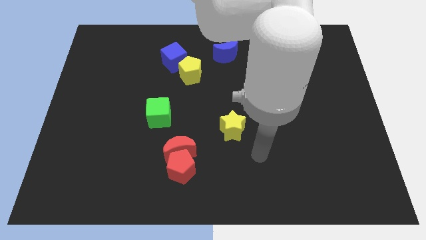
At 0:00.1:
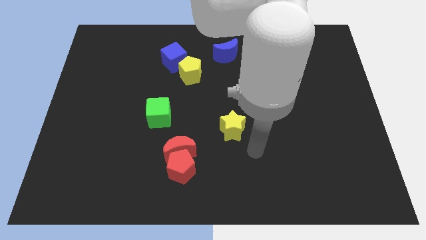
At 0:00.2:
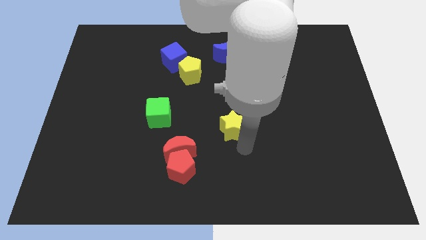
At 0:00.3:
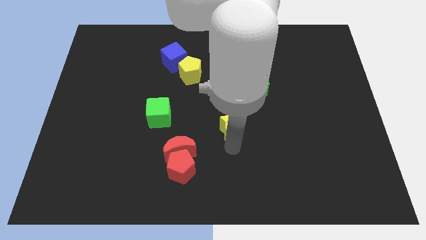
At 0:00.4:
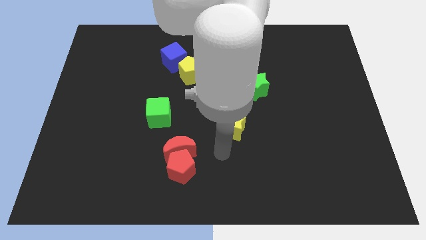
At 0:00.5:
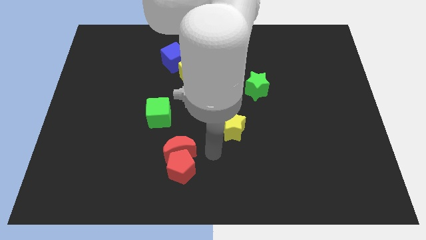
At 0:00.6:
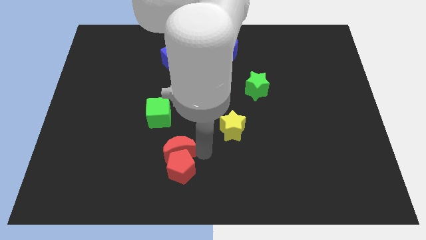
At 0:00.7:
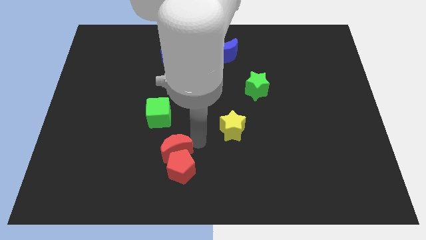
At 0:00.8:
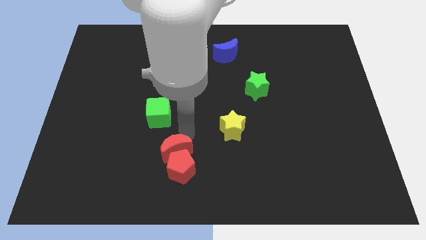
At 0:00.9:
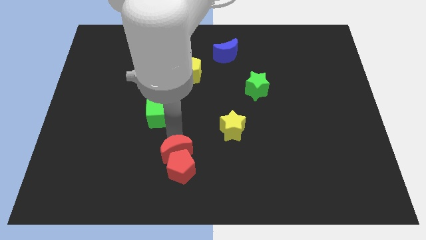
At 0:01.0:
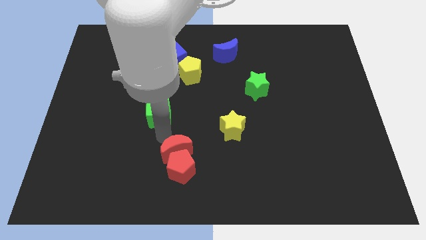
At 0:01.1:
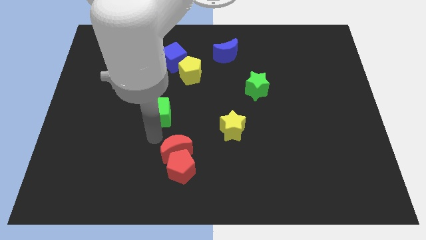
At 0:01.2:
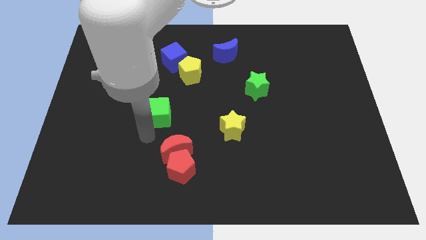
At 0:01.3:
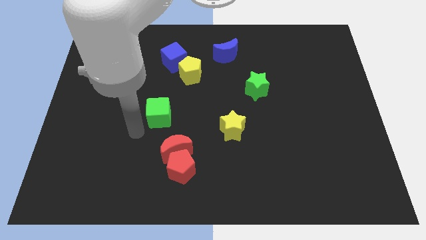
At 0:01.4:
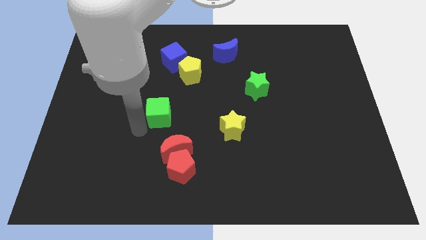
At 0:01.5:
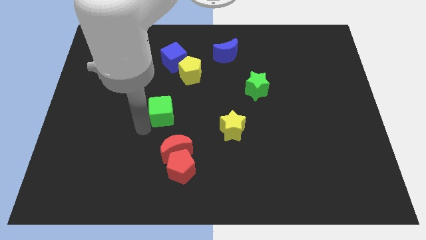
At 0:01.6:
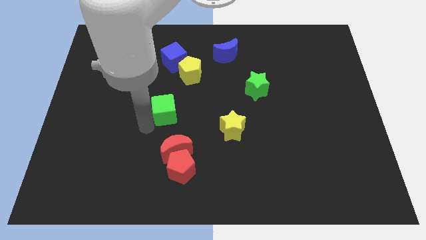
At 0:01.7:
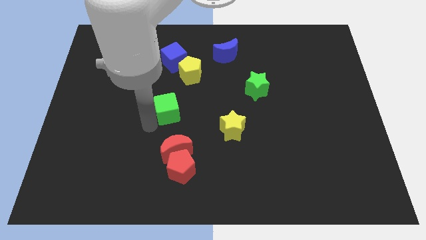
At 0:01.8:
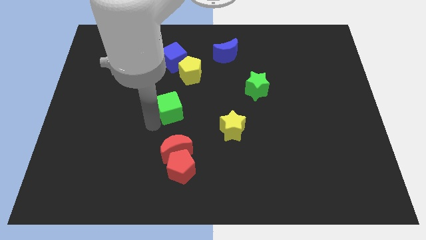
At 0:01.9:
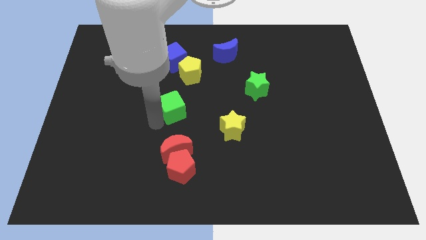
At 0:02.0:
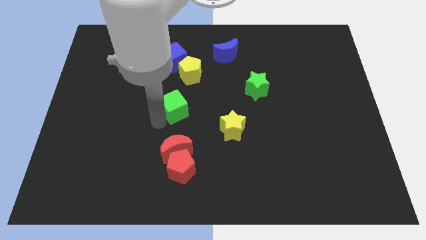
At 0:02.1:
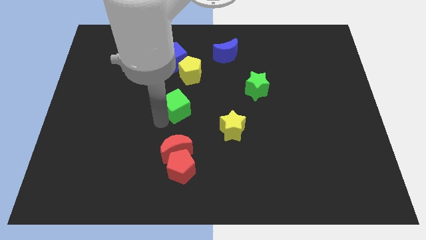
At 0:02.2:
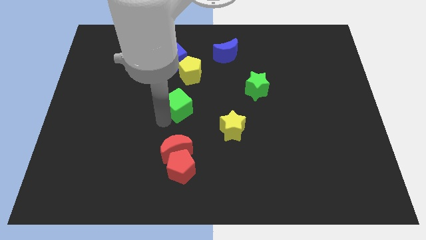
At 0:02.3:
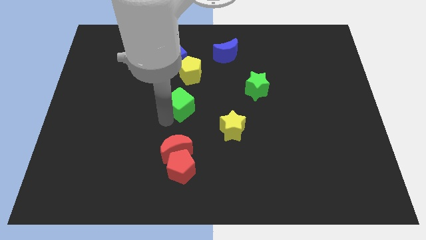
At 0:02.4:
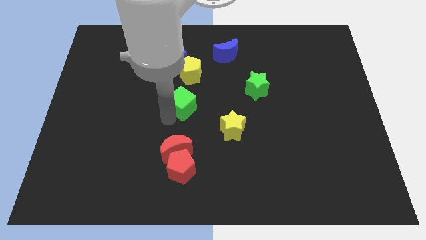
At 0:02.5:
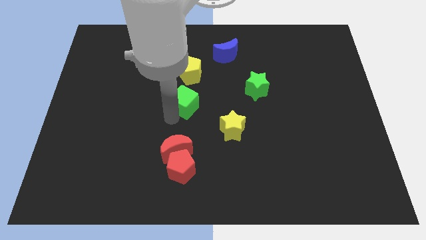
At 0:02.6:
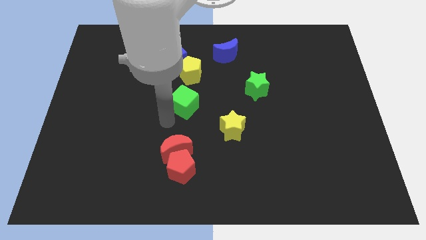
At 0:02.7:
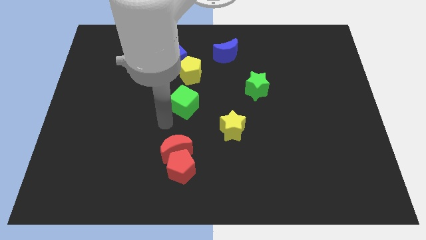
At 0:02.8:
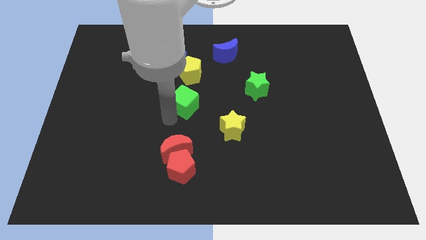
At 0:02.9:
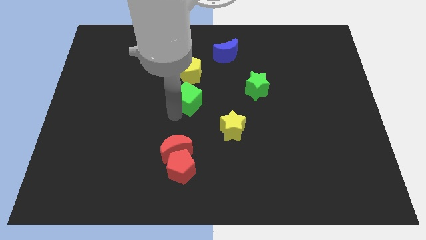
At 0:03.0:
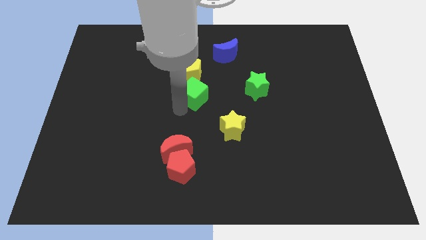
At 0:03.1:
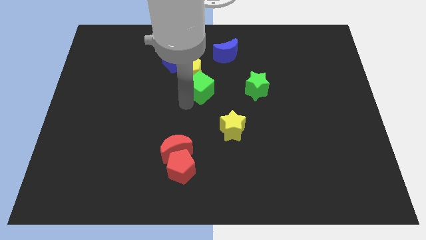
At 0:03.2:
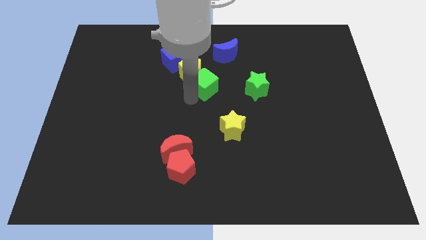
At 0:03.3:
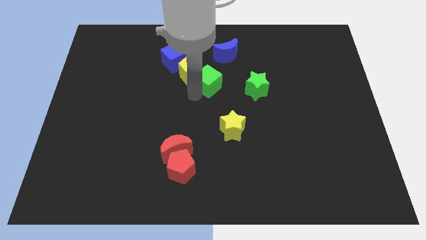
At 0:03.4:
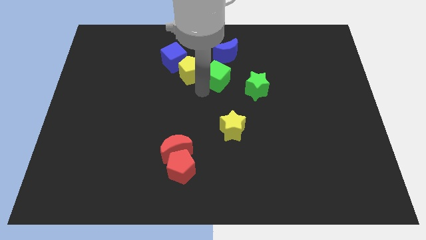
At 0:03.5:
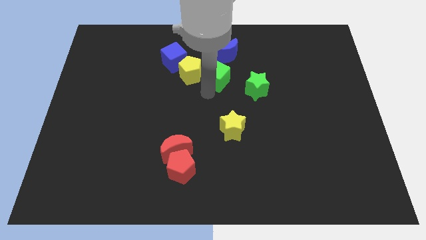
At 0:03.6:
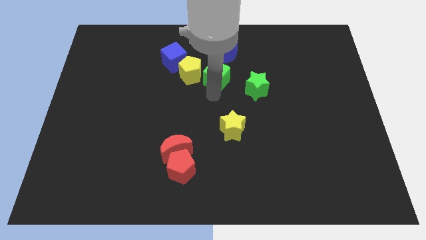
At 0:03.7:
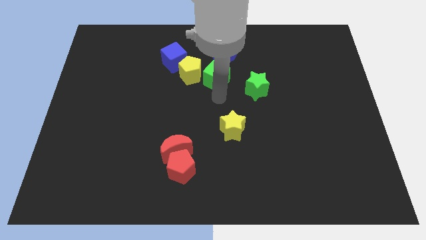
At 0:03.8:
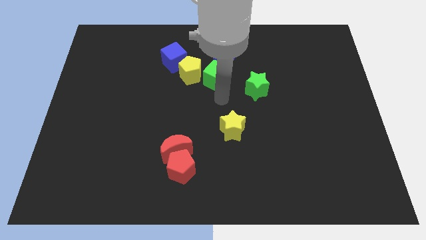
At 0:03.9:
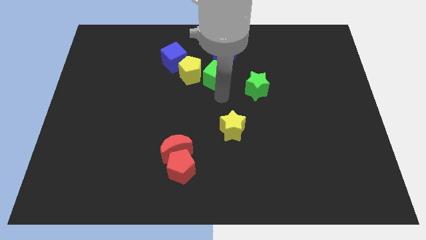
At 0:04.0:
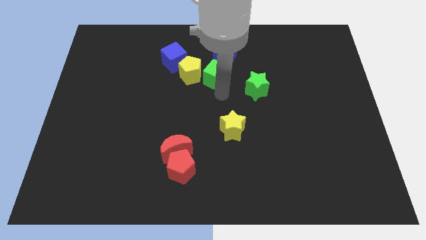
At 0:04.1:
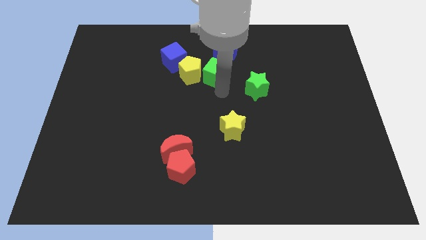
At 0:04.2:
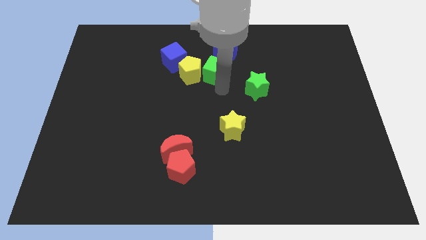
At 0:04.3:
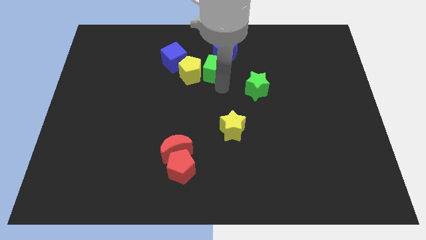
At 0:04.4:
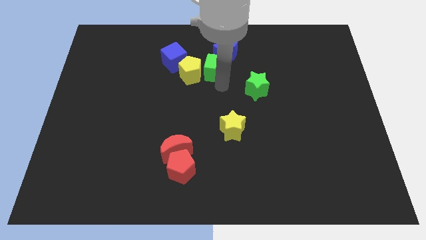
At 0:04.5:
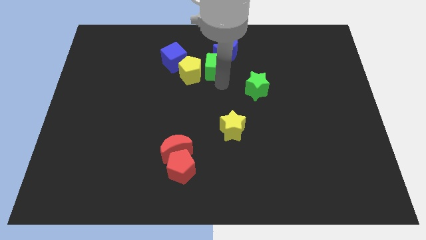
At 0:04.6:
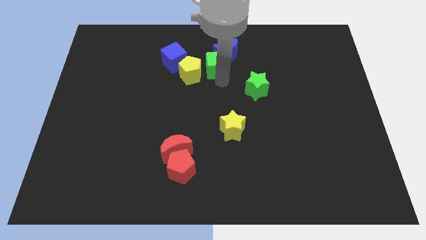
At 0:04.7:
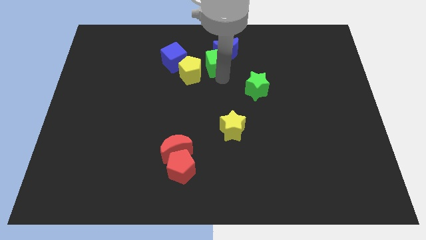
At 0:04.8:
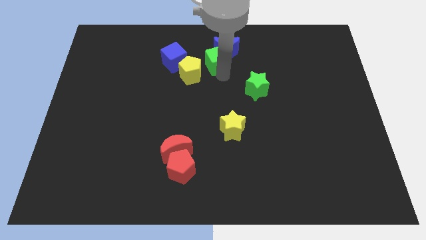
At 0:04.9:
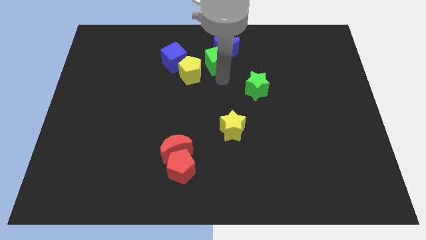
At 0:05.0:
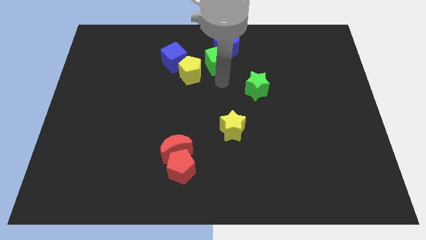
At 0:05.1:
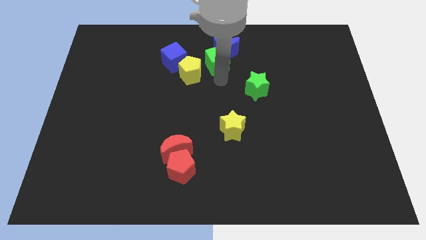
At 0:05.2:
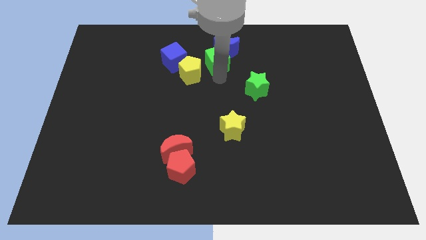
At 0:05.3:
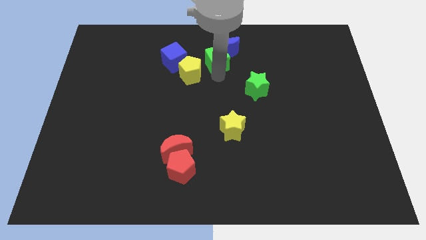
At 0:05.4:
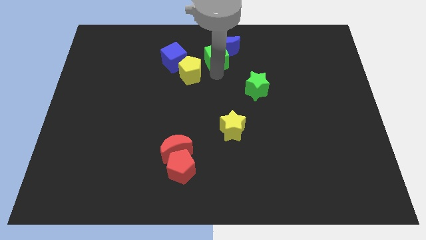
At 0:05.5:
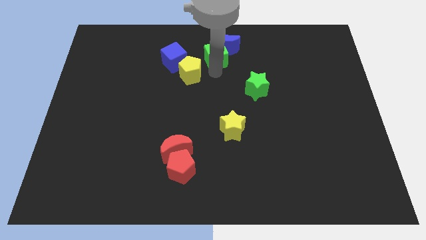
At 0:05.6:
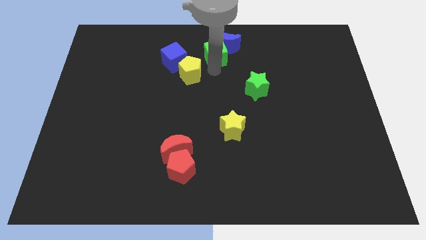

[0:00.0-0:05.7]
slide the green cube to the top side

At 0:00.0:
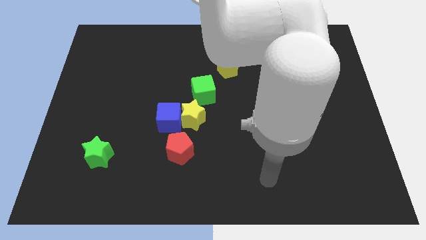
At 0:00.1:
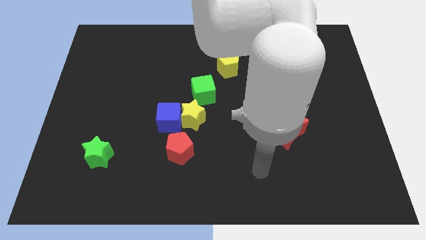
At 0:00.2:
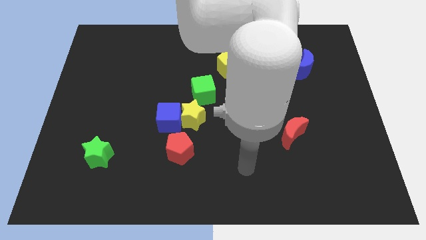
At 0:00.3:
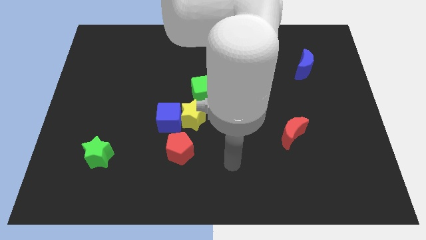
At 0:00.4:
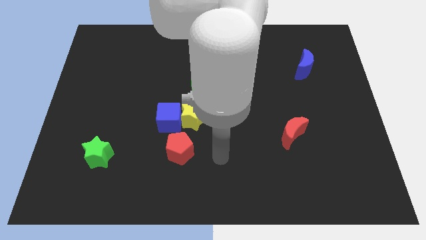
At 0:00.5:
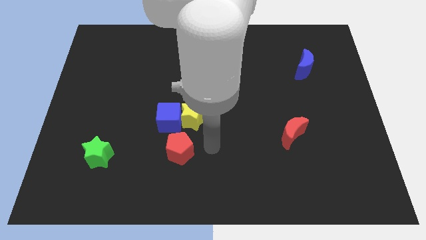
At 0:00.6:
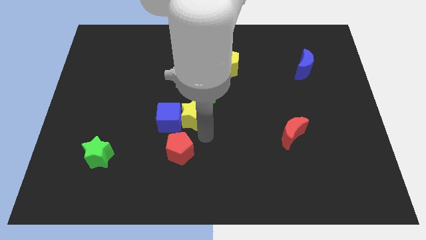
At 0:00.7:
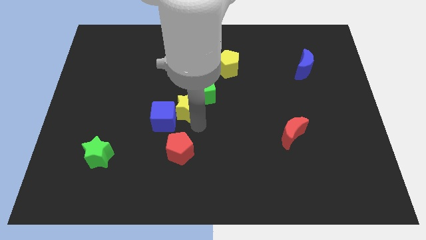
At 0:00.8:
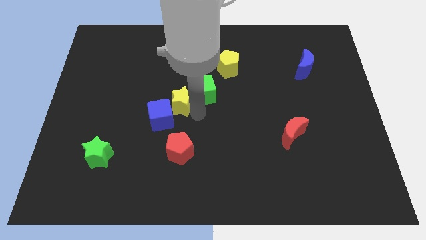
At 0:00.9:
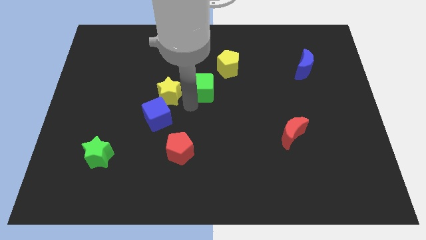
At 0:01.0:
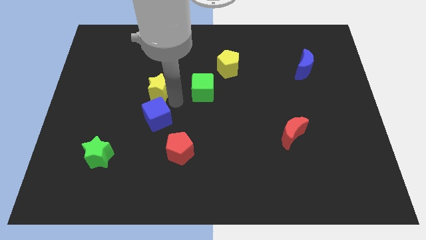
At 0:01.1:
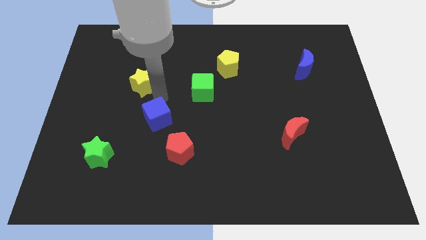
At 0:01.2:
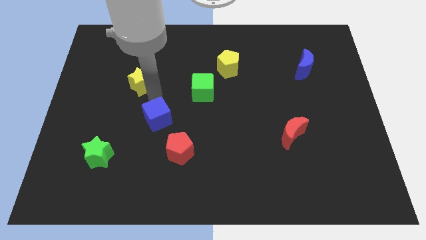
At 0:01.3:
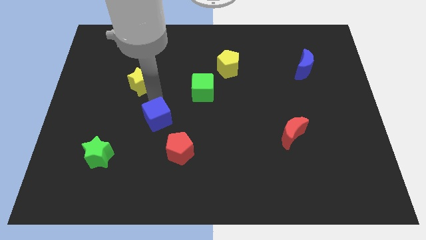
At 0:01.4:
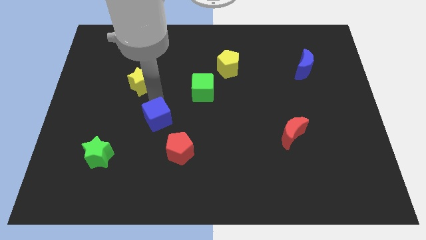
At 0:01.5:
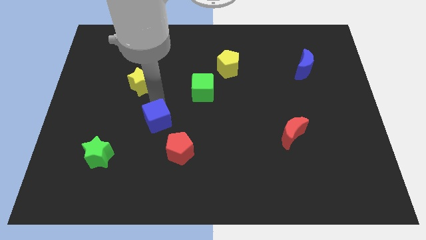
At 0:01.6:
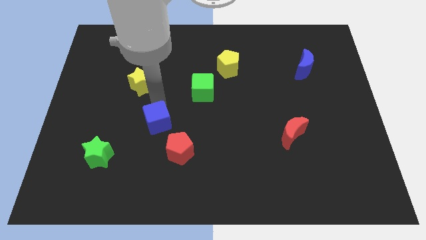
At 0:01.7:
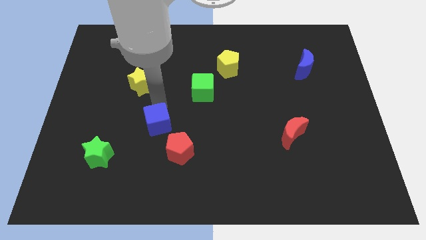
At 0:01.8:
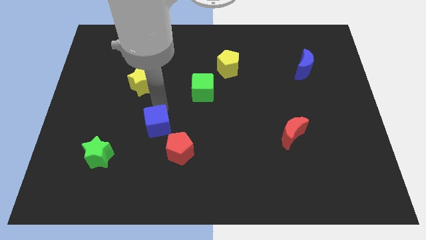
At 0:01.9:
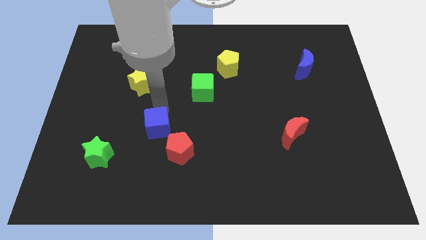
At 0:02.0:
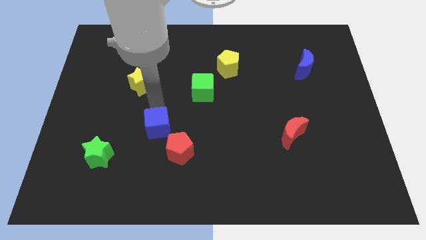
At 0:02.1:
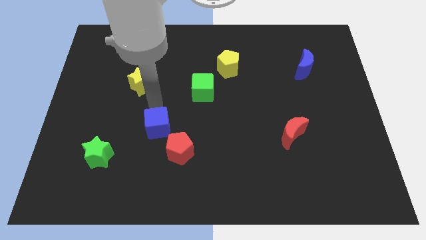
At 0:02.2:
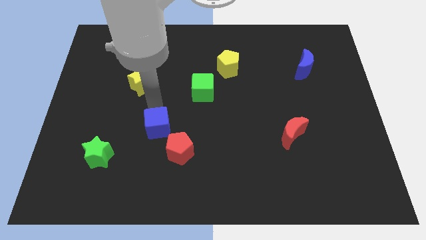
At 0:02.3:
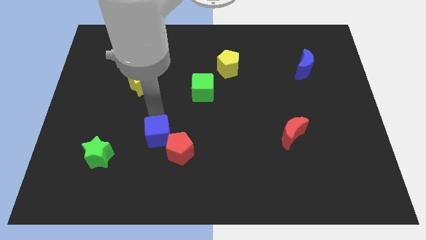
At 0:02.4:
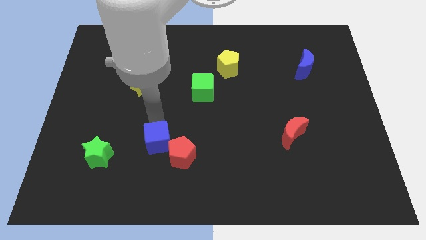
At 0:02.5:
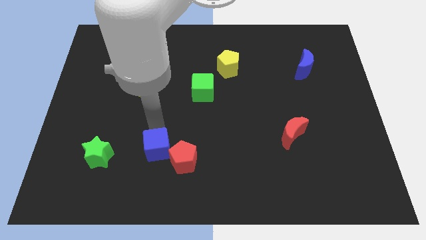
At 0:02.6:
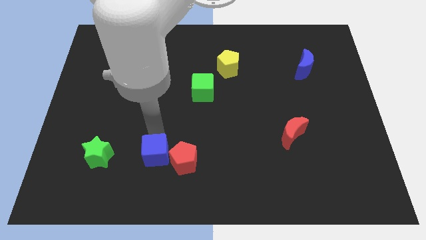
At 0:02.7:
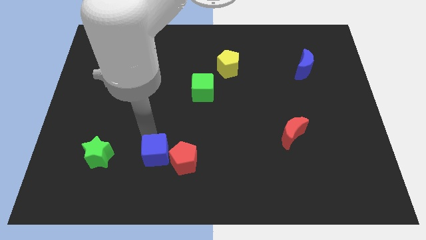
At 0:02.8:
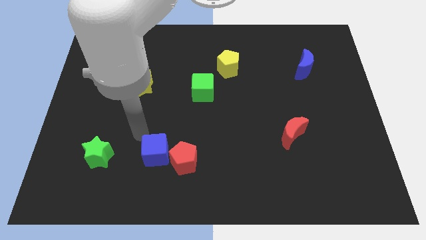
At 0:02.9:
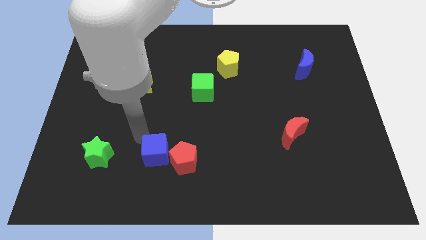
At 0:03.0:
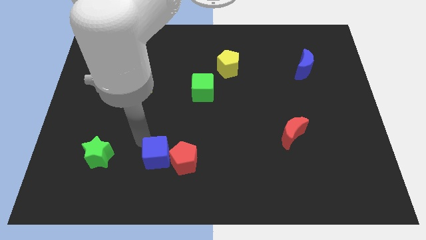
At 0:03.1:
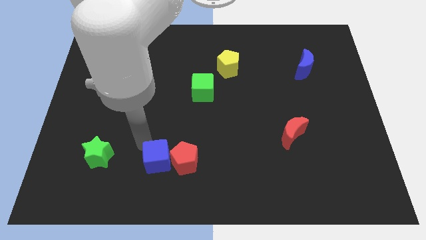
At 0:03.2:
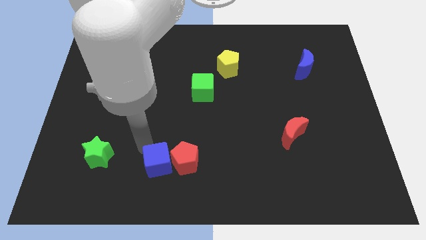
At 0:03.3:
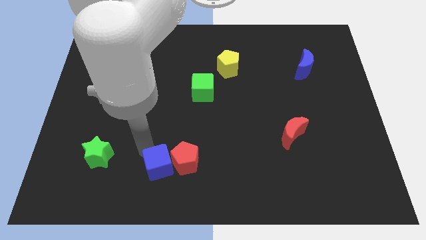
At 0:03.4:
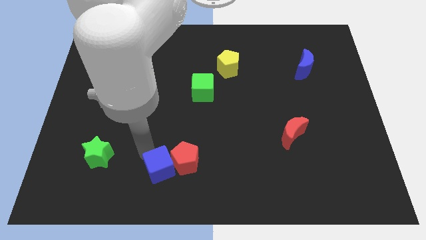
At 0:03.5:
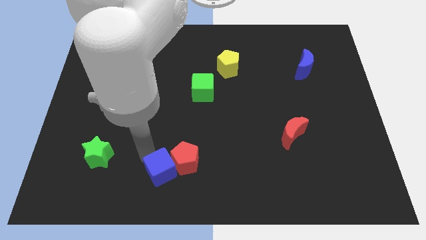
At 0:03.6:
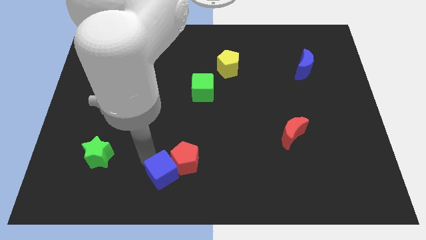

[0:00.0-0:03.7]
put the blue cube to the bottom side
